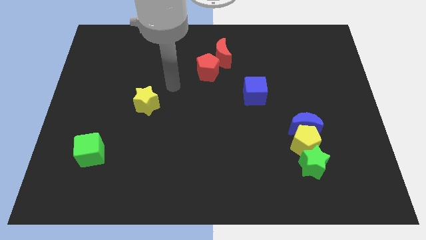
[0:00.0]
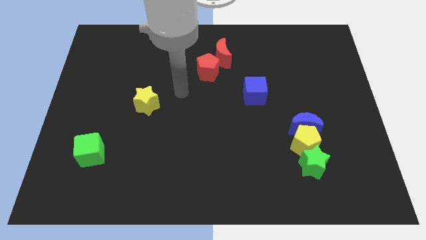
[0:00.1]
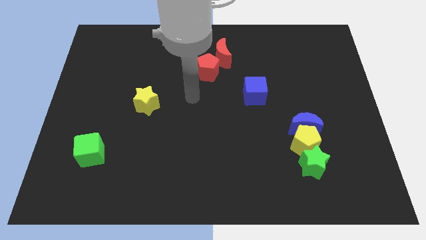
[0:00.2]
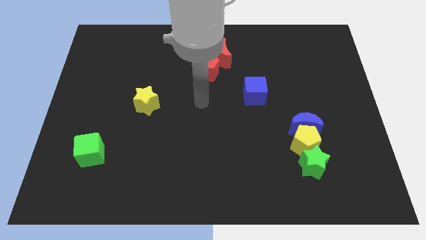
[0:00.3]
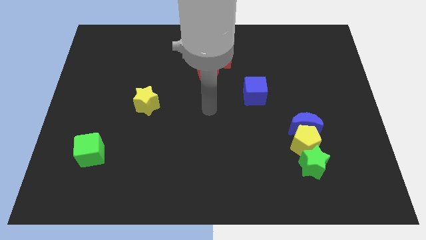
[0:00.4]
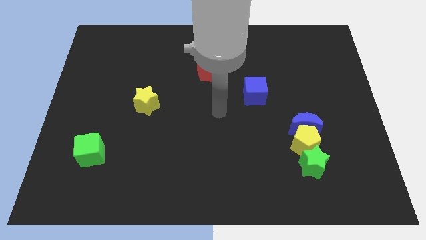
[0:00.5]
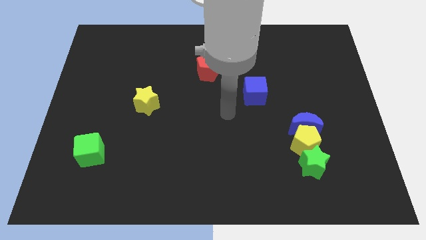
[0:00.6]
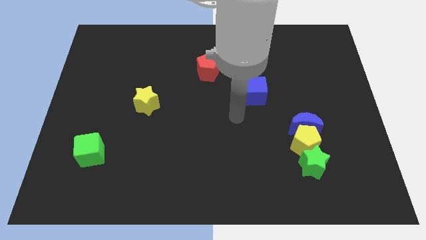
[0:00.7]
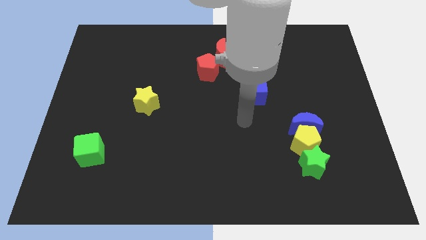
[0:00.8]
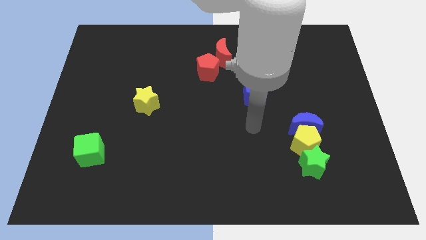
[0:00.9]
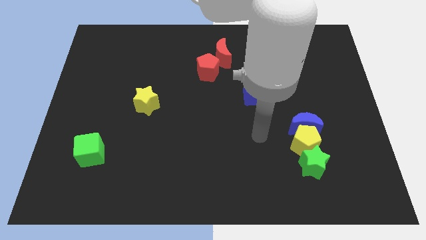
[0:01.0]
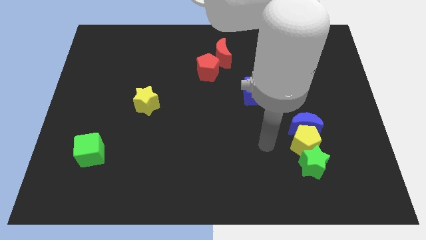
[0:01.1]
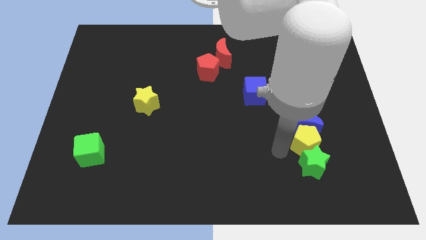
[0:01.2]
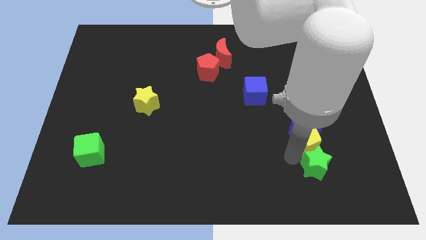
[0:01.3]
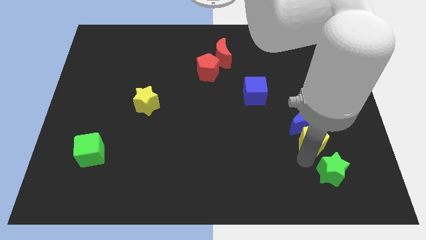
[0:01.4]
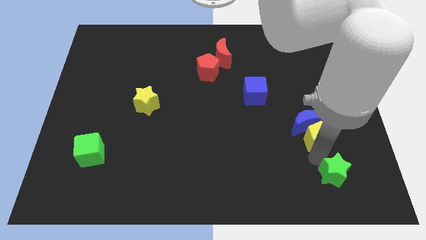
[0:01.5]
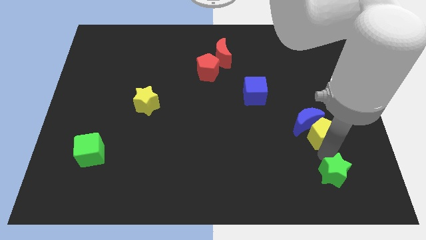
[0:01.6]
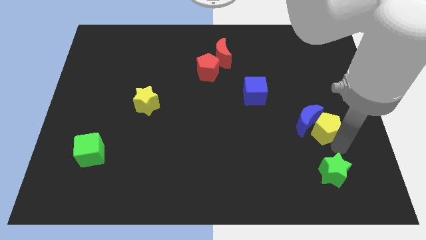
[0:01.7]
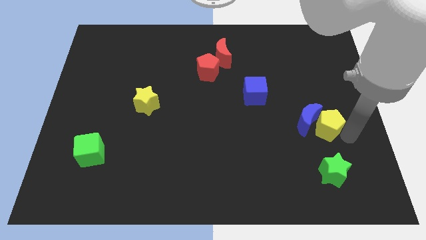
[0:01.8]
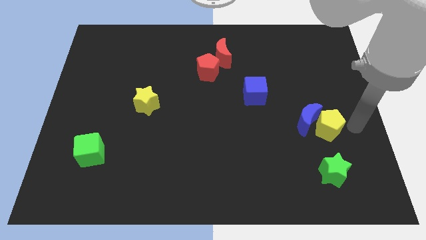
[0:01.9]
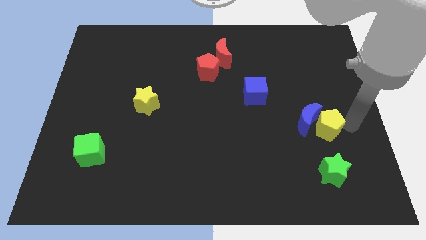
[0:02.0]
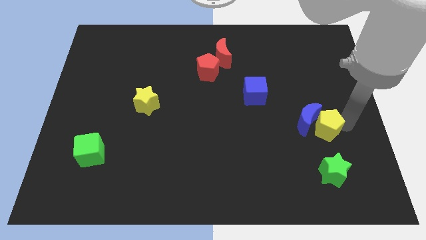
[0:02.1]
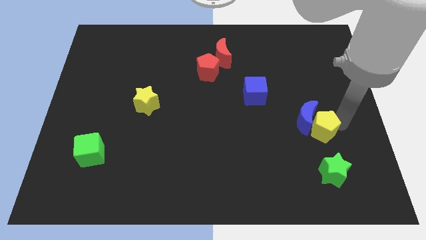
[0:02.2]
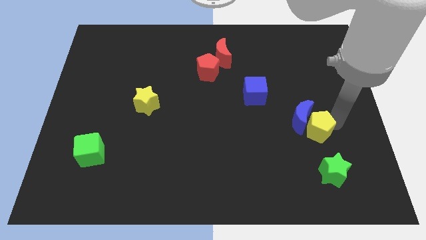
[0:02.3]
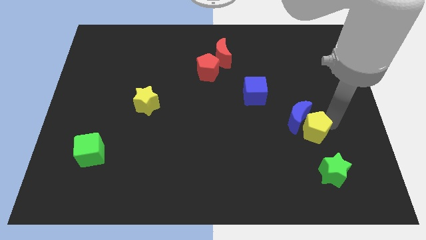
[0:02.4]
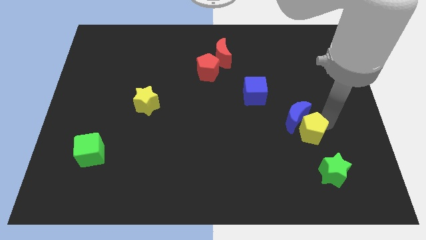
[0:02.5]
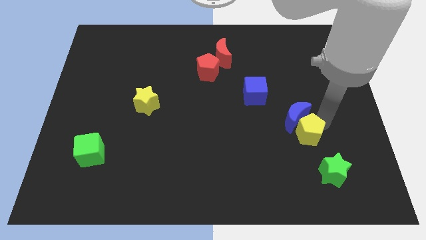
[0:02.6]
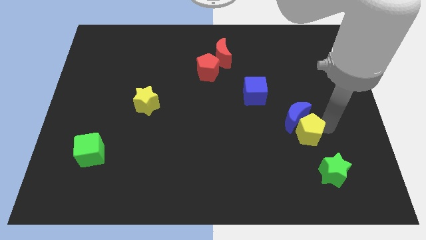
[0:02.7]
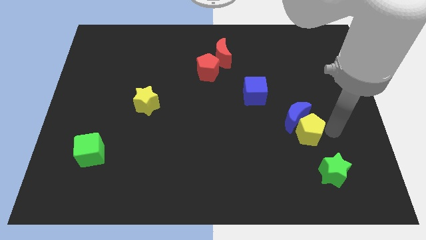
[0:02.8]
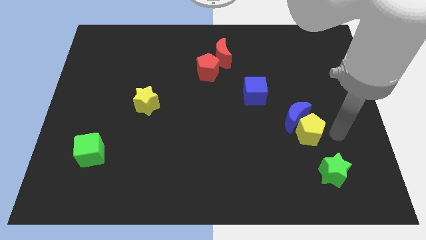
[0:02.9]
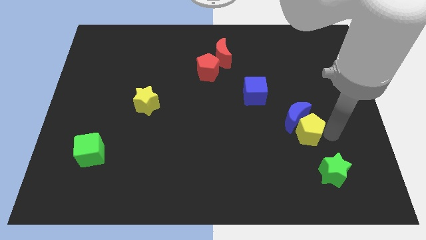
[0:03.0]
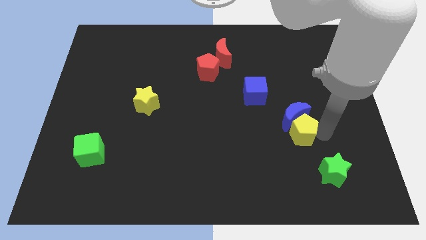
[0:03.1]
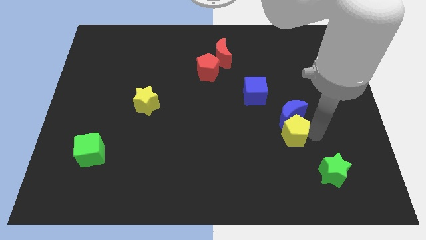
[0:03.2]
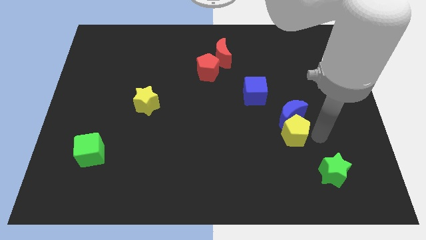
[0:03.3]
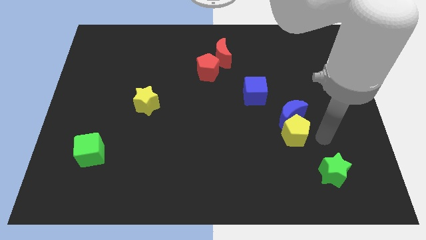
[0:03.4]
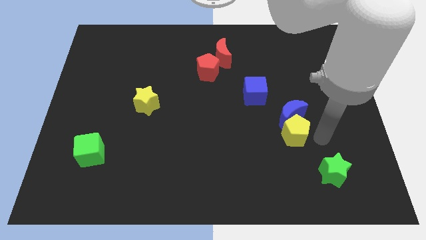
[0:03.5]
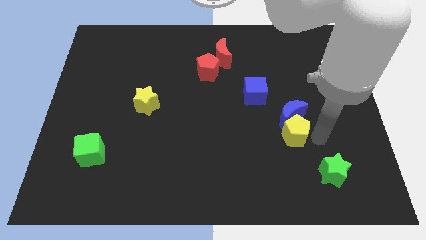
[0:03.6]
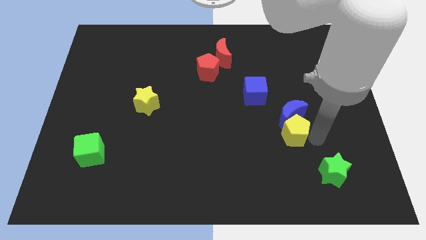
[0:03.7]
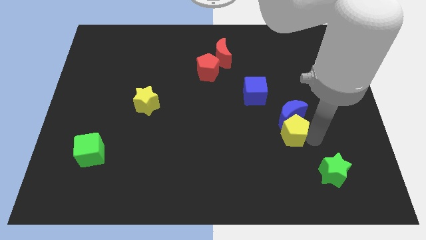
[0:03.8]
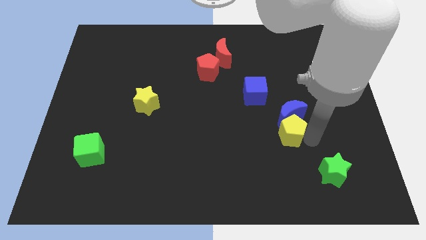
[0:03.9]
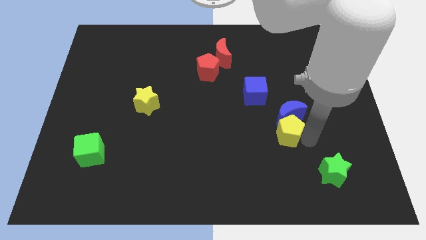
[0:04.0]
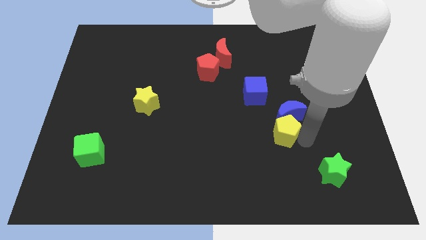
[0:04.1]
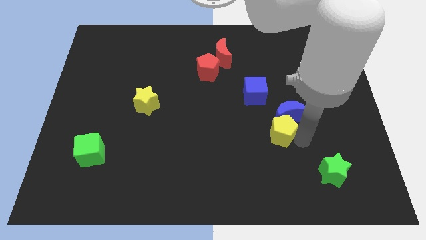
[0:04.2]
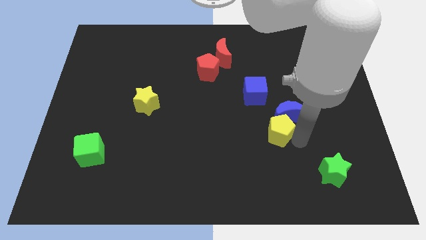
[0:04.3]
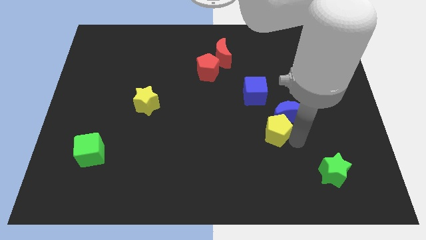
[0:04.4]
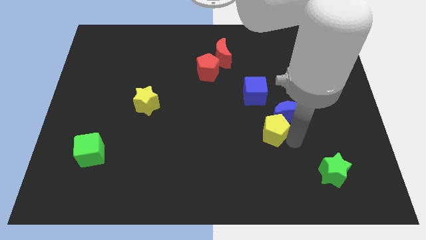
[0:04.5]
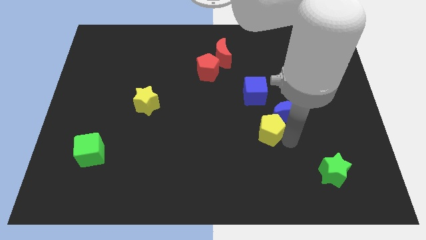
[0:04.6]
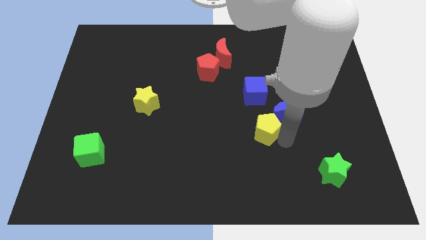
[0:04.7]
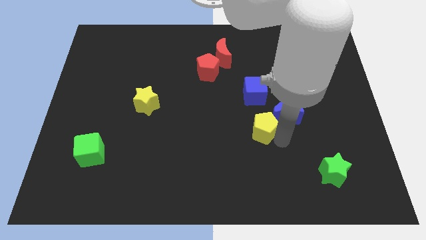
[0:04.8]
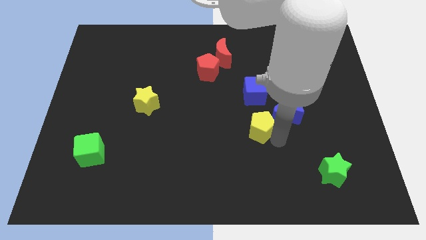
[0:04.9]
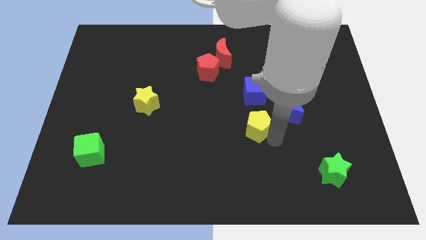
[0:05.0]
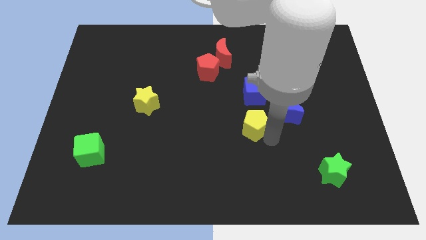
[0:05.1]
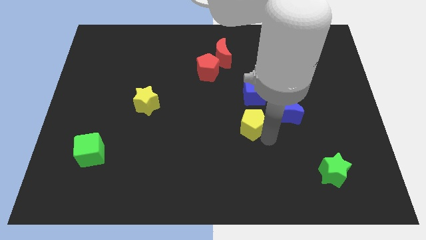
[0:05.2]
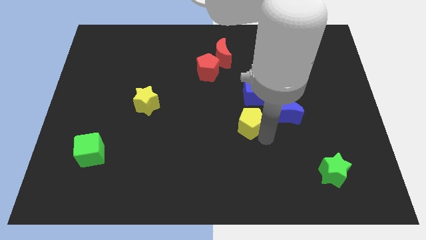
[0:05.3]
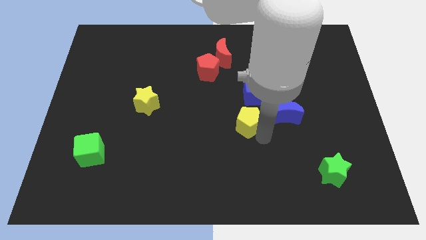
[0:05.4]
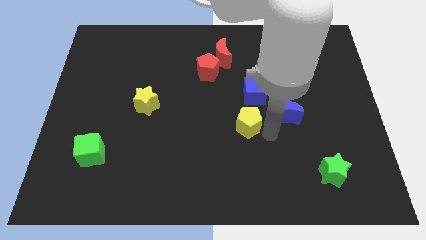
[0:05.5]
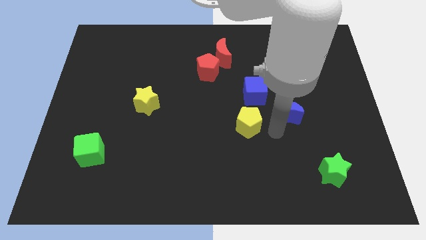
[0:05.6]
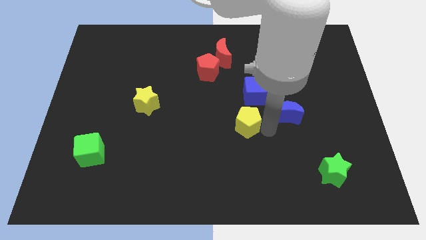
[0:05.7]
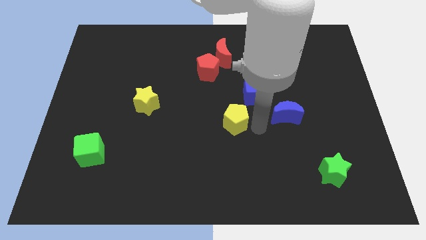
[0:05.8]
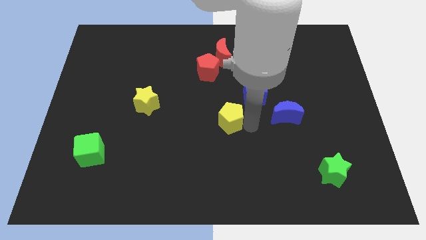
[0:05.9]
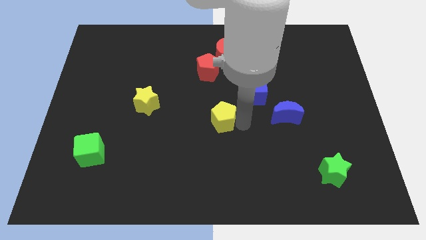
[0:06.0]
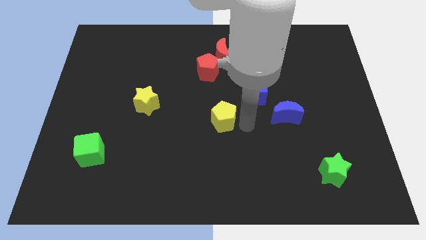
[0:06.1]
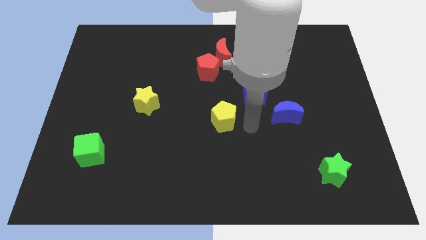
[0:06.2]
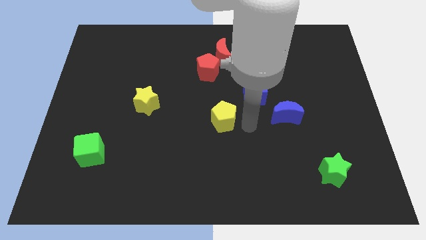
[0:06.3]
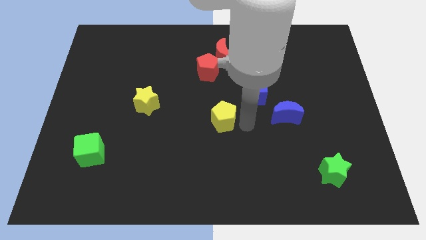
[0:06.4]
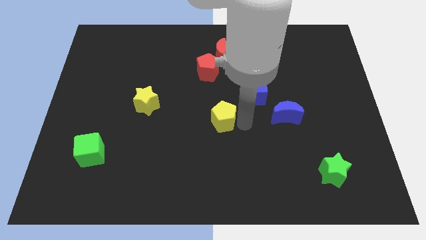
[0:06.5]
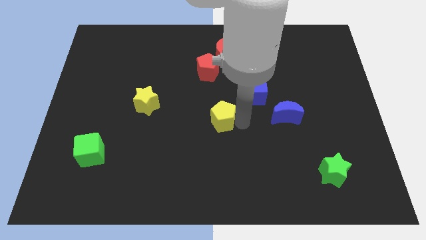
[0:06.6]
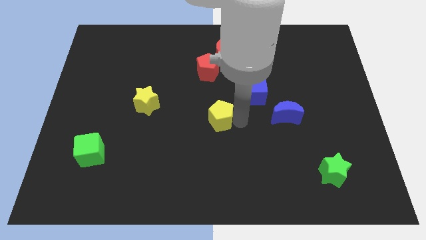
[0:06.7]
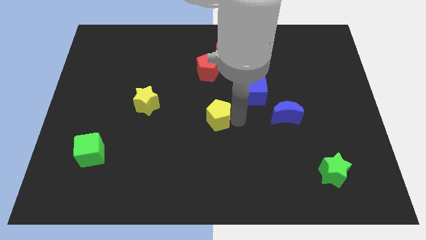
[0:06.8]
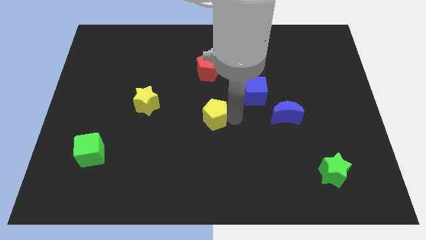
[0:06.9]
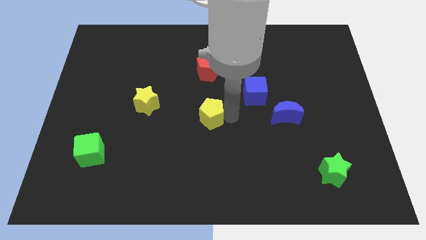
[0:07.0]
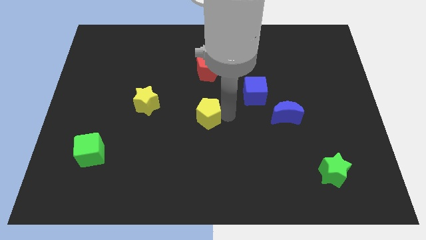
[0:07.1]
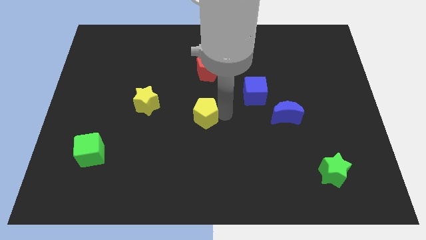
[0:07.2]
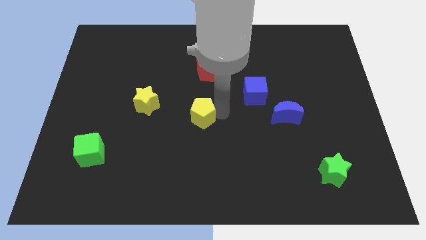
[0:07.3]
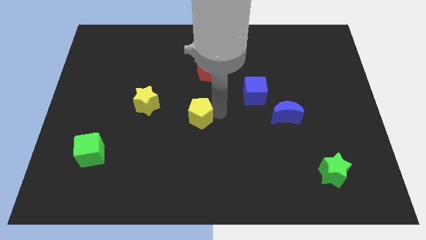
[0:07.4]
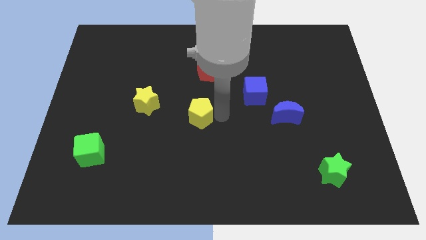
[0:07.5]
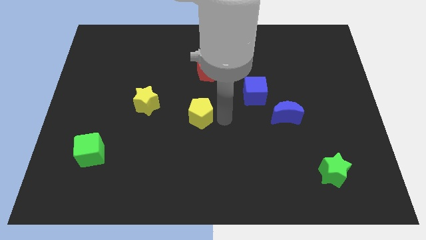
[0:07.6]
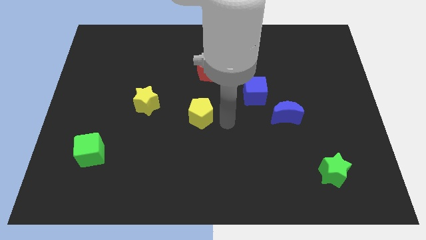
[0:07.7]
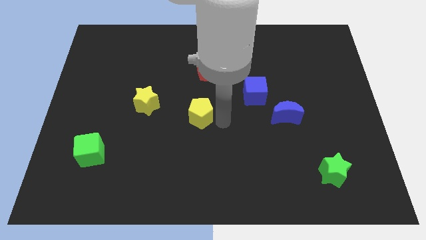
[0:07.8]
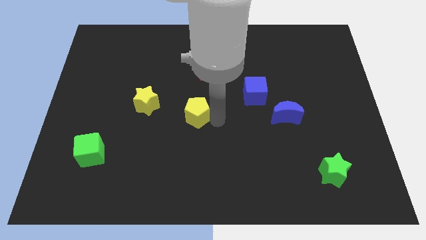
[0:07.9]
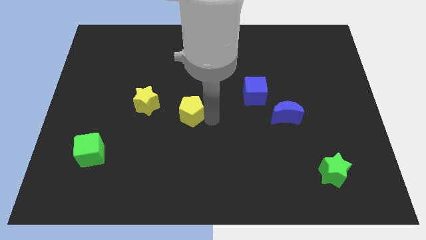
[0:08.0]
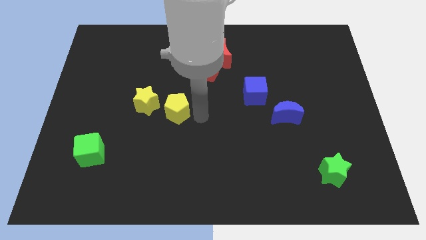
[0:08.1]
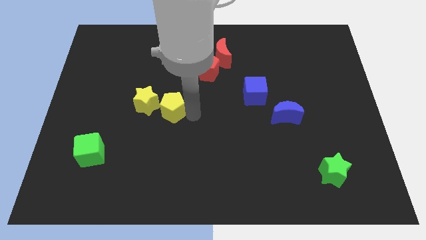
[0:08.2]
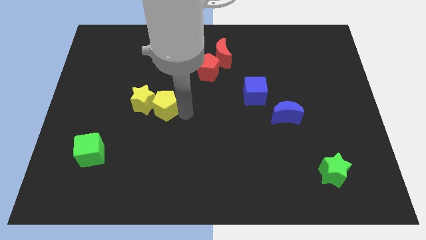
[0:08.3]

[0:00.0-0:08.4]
slide the yellow pentagon next to the yellow star
